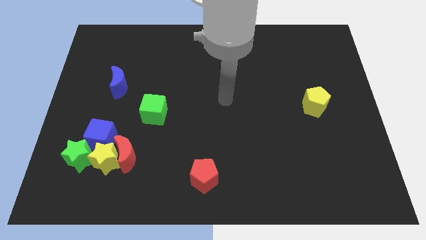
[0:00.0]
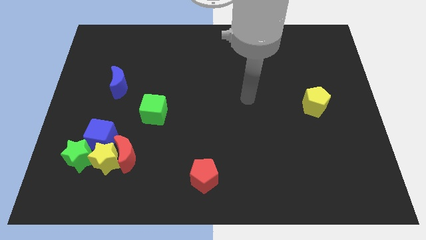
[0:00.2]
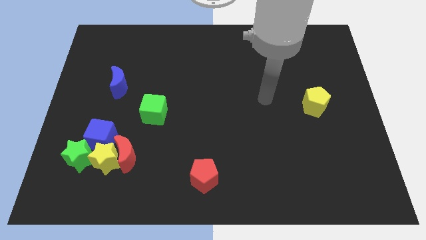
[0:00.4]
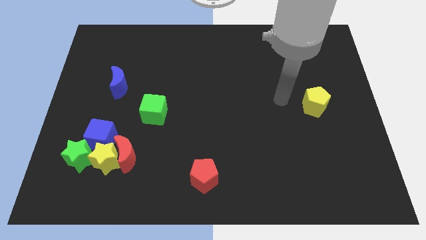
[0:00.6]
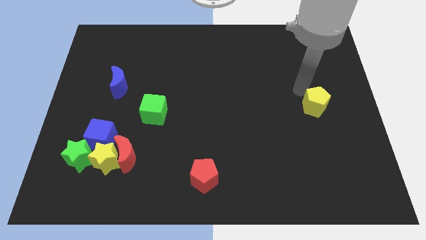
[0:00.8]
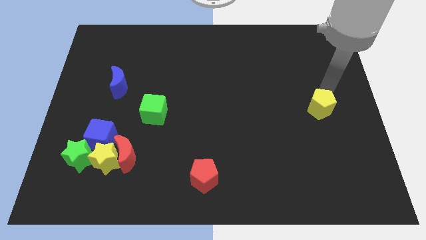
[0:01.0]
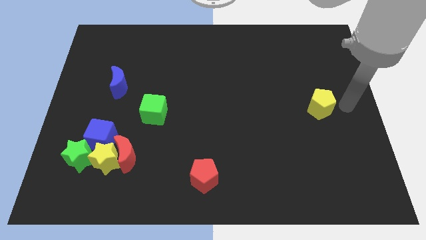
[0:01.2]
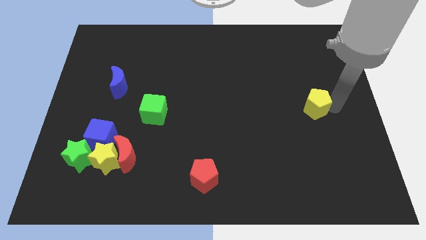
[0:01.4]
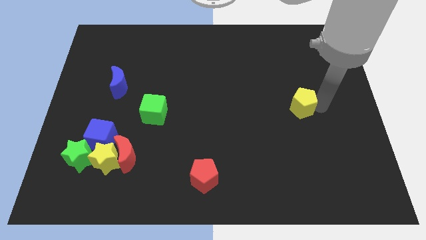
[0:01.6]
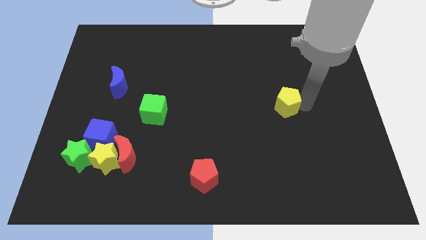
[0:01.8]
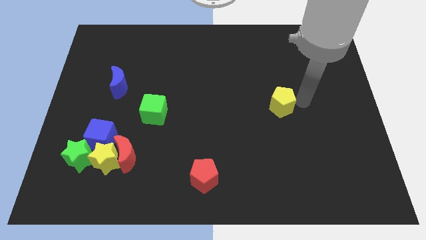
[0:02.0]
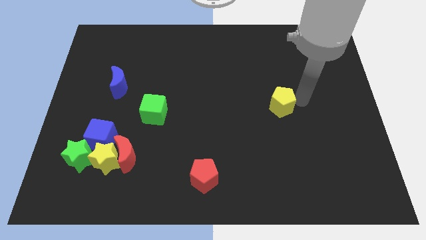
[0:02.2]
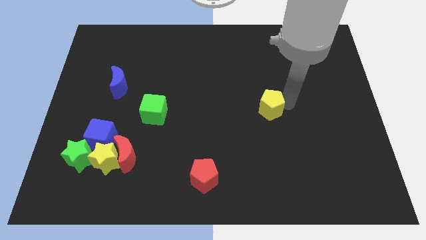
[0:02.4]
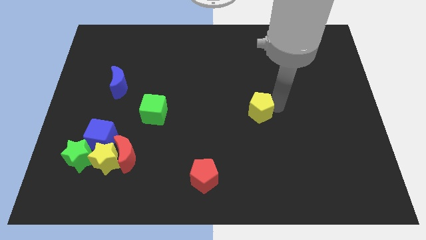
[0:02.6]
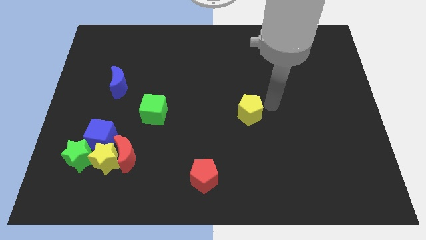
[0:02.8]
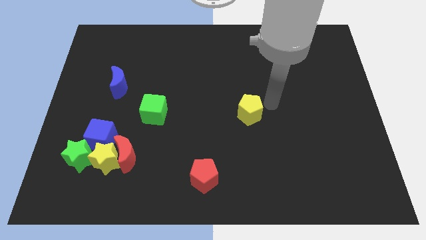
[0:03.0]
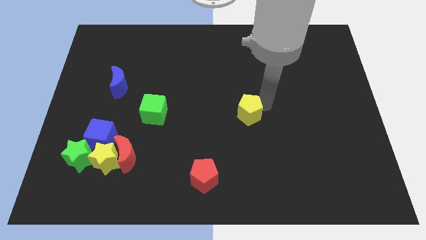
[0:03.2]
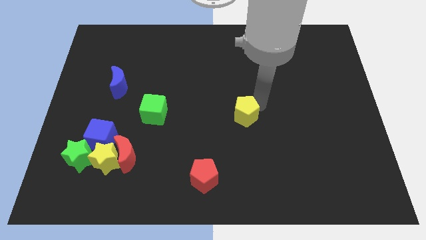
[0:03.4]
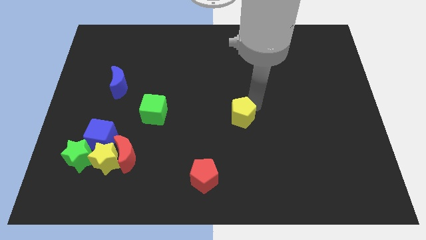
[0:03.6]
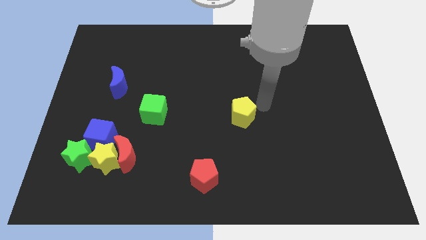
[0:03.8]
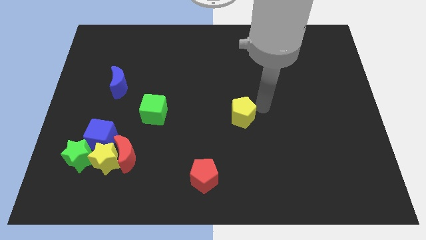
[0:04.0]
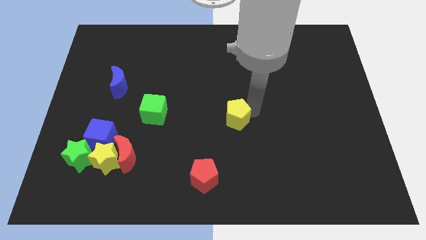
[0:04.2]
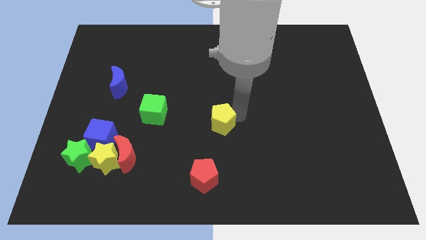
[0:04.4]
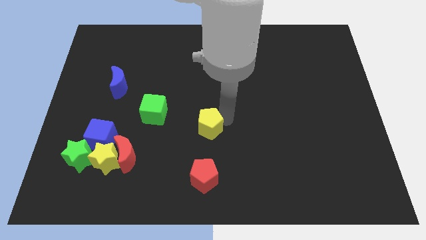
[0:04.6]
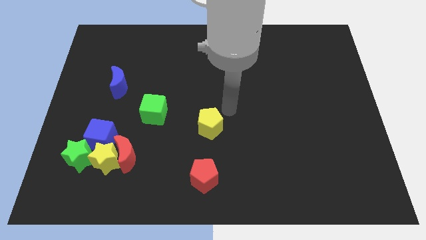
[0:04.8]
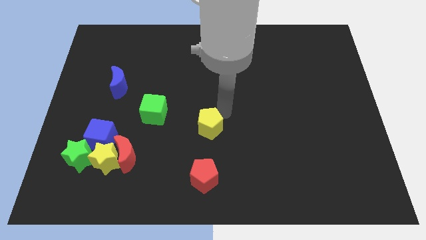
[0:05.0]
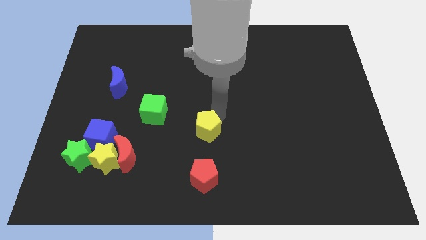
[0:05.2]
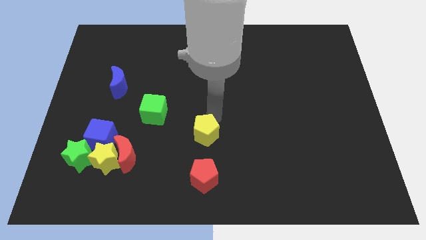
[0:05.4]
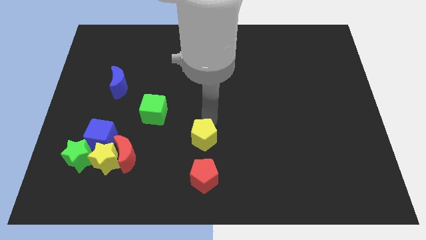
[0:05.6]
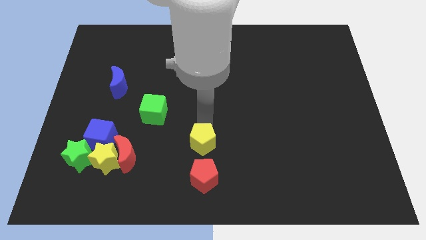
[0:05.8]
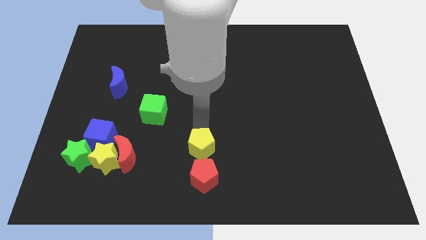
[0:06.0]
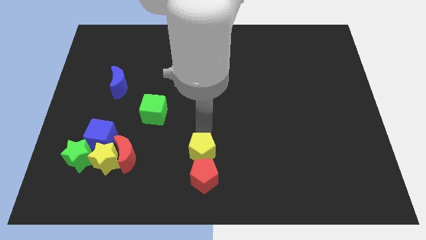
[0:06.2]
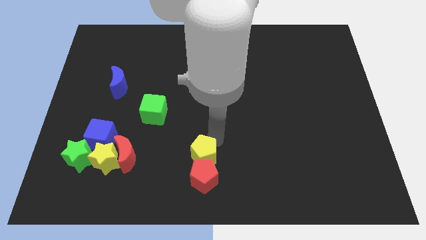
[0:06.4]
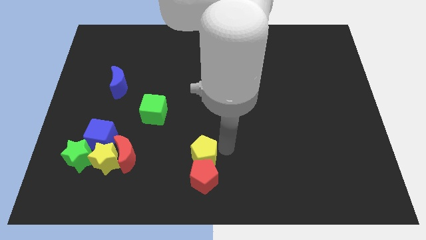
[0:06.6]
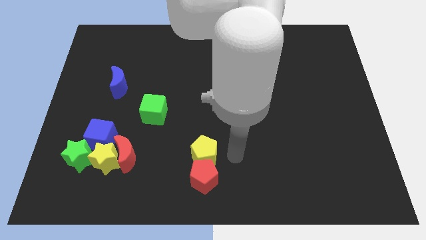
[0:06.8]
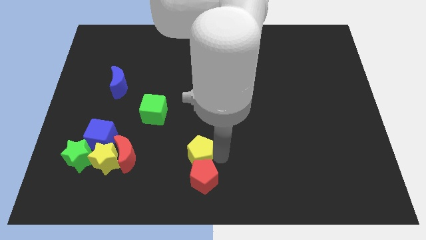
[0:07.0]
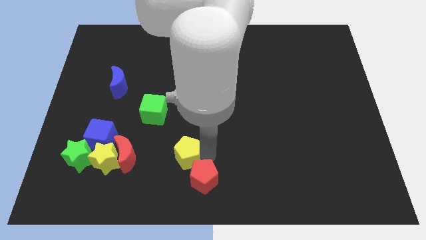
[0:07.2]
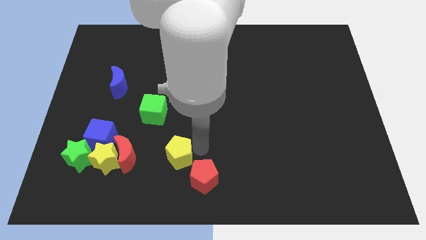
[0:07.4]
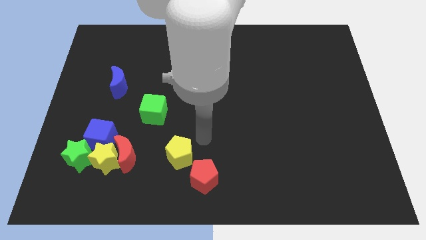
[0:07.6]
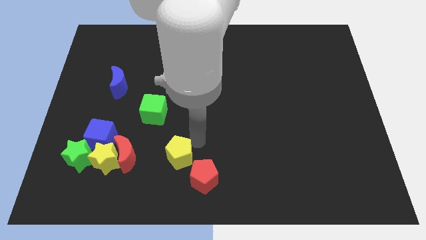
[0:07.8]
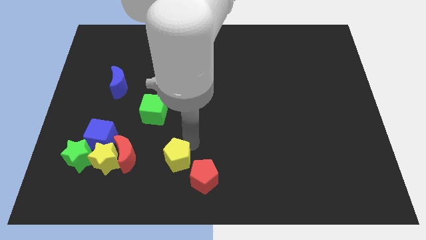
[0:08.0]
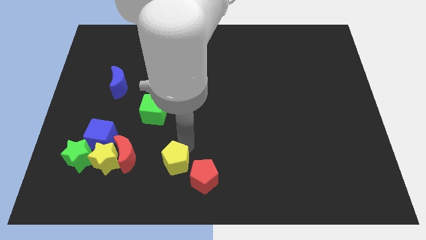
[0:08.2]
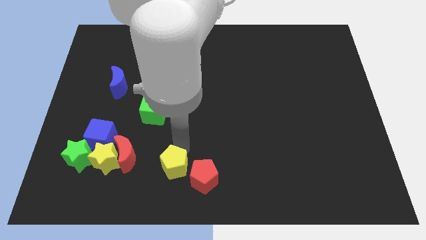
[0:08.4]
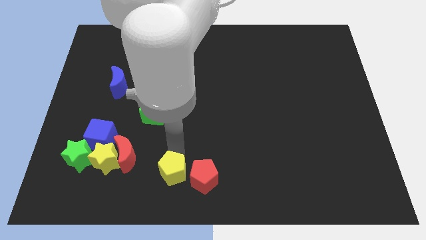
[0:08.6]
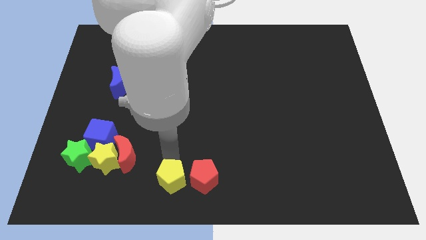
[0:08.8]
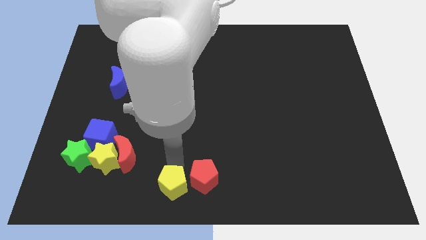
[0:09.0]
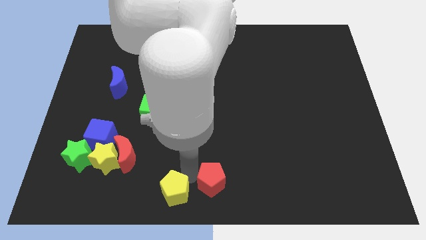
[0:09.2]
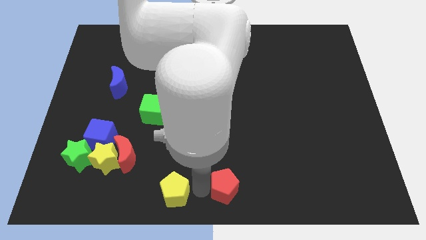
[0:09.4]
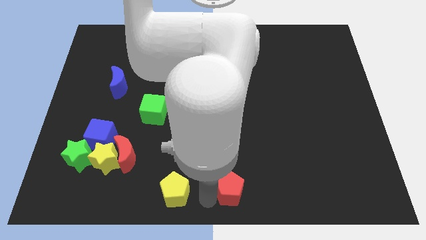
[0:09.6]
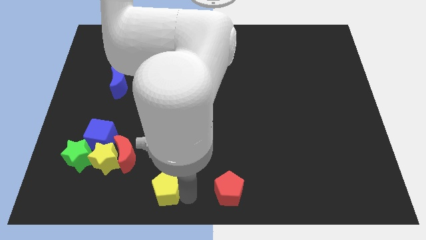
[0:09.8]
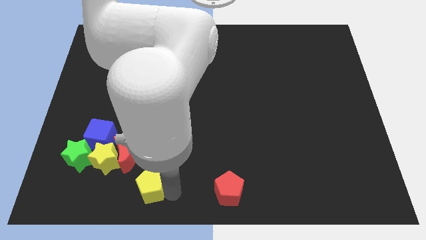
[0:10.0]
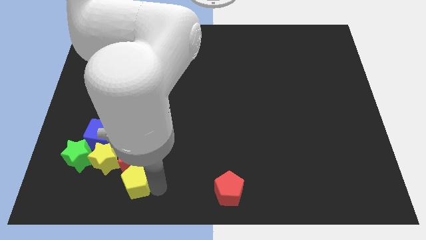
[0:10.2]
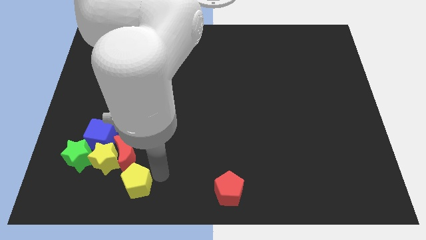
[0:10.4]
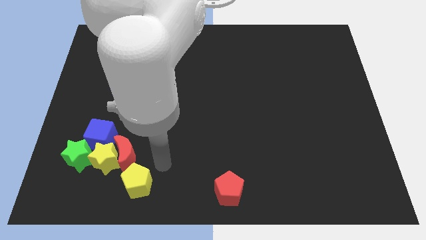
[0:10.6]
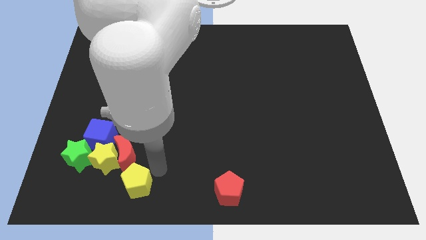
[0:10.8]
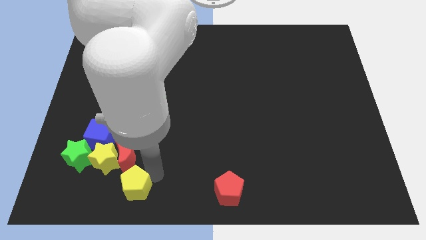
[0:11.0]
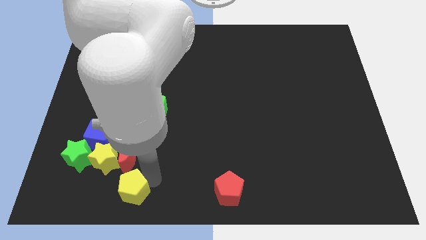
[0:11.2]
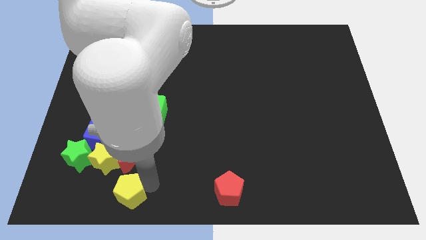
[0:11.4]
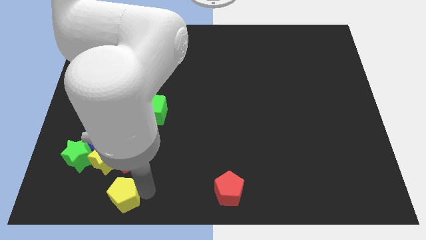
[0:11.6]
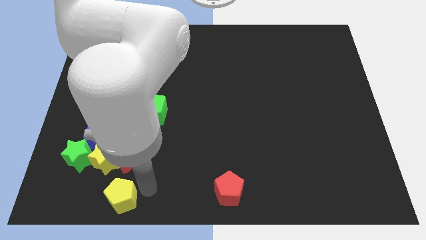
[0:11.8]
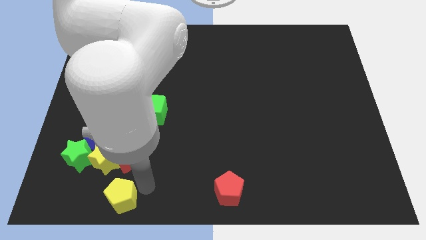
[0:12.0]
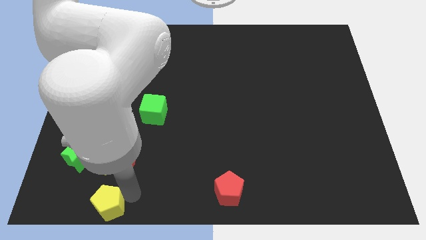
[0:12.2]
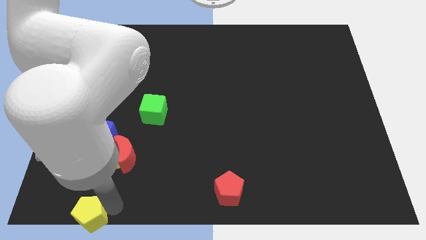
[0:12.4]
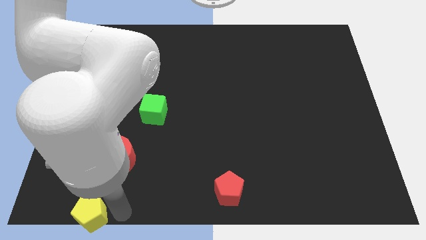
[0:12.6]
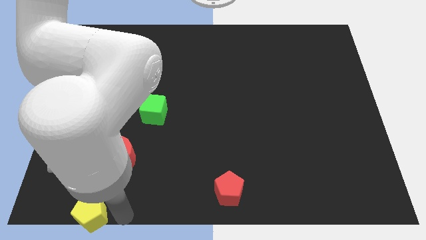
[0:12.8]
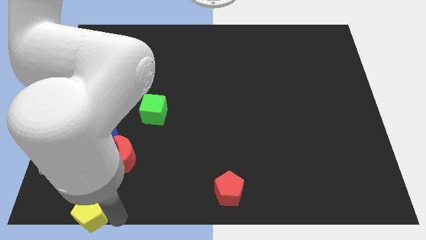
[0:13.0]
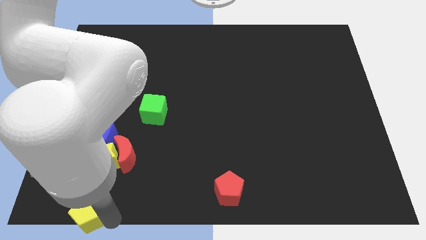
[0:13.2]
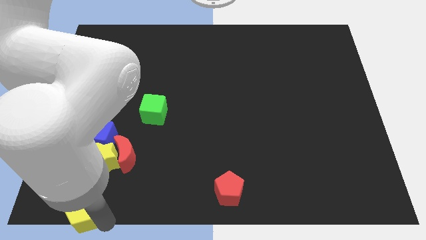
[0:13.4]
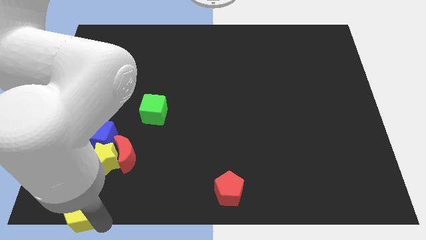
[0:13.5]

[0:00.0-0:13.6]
put the yellow pentagon to the lower left corner
